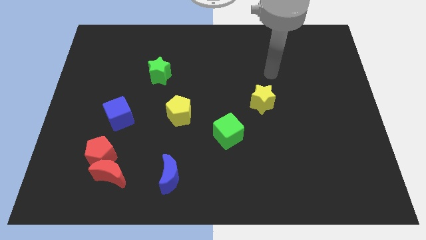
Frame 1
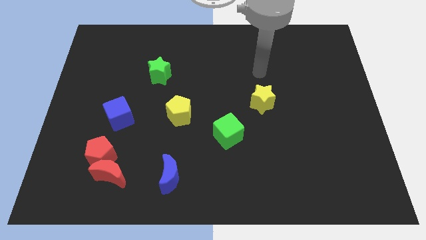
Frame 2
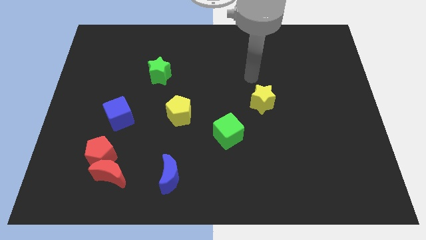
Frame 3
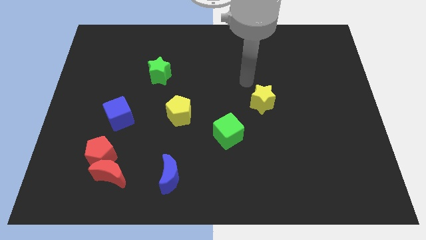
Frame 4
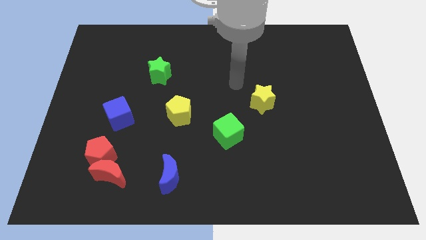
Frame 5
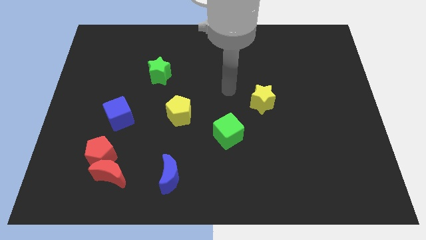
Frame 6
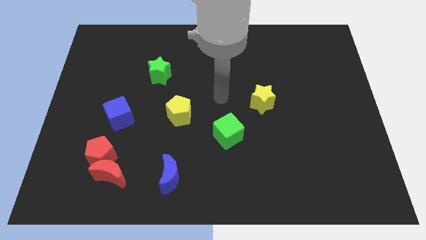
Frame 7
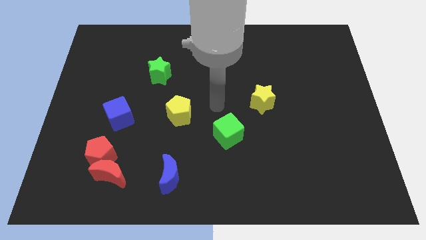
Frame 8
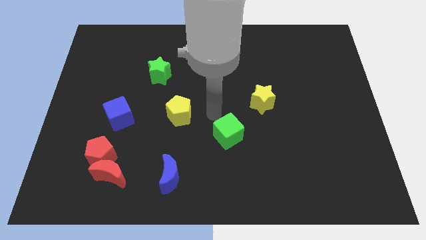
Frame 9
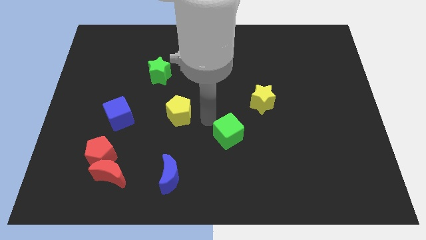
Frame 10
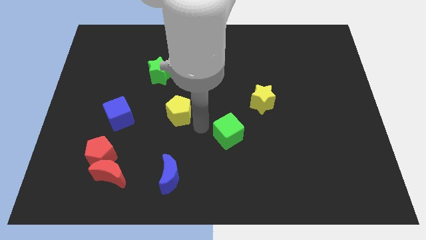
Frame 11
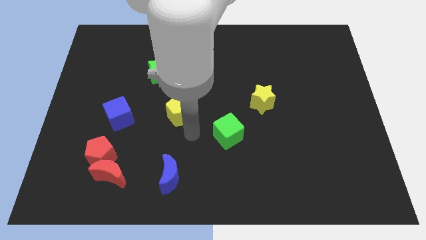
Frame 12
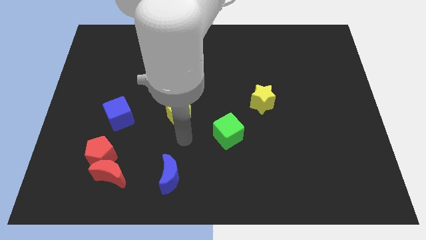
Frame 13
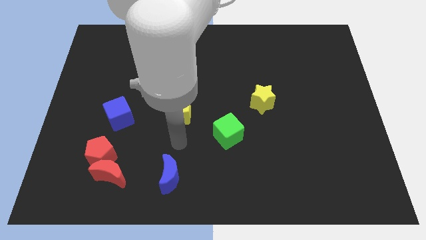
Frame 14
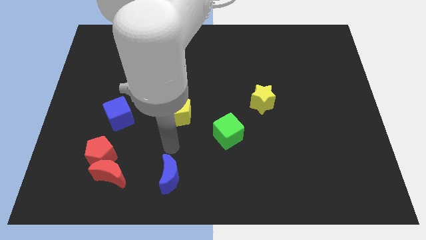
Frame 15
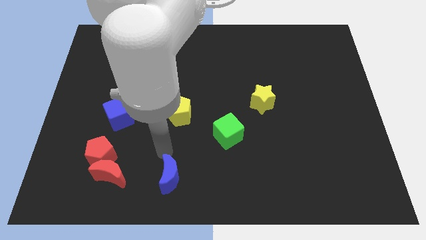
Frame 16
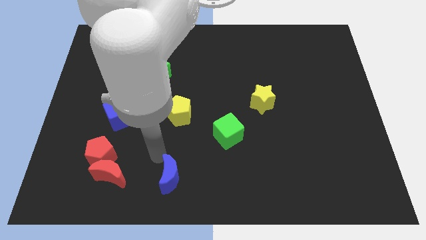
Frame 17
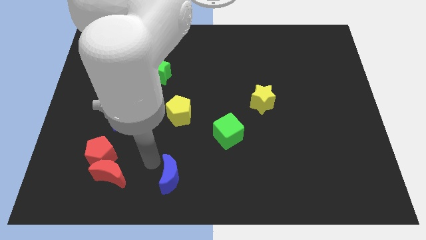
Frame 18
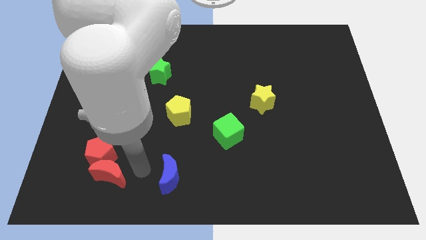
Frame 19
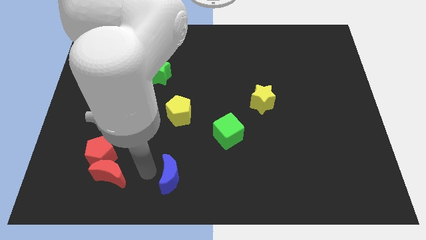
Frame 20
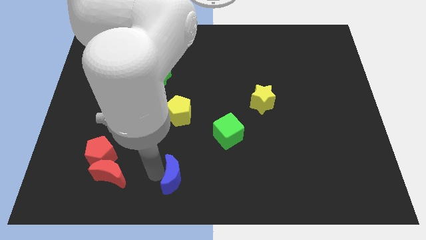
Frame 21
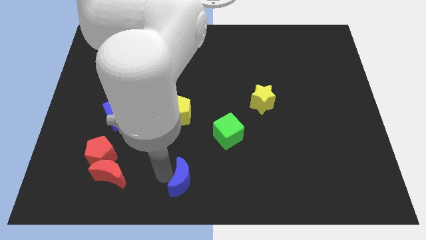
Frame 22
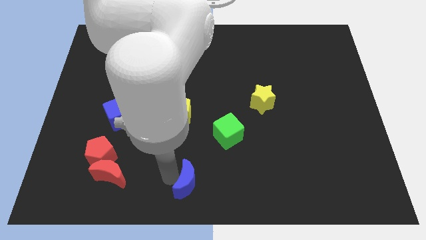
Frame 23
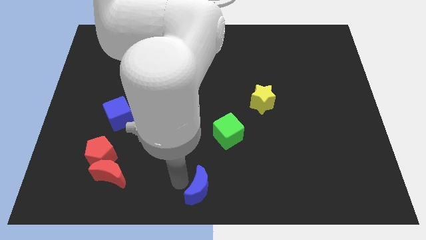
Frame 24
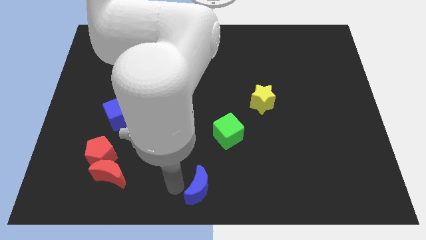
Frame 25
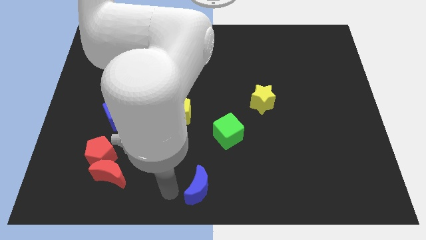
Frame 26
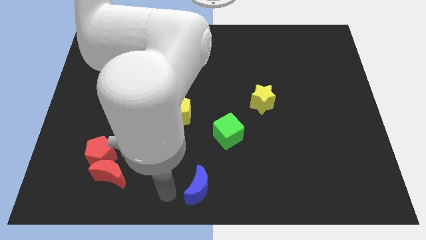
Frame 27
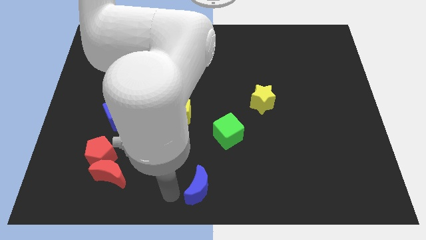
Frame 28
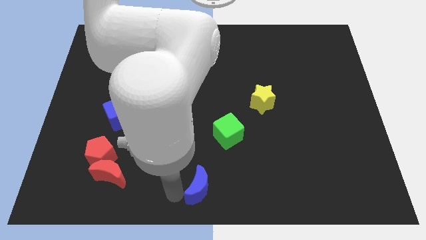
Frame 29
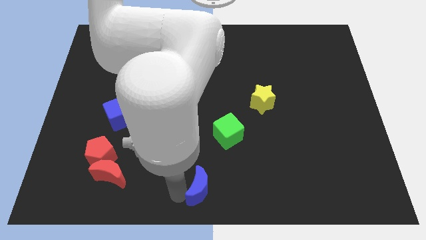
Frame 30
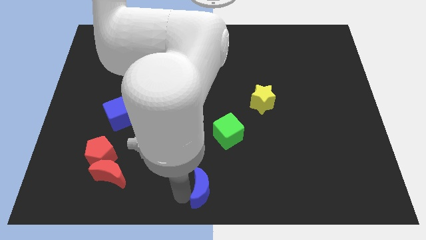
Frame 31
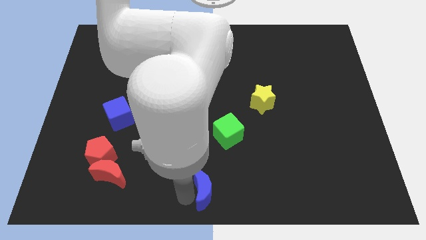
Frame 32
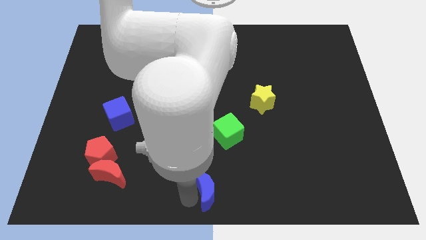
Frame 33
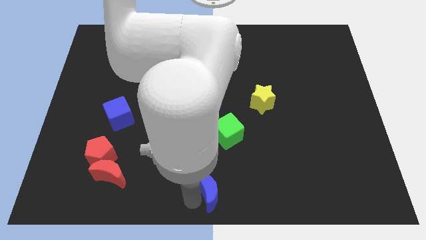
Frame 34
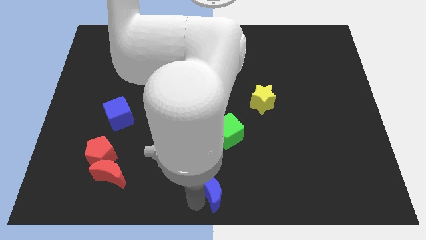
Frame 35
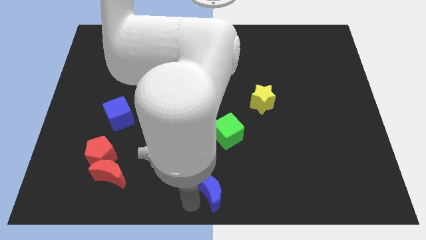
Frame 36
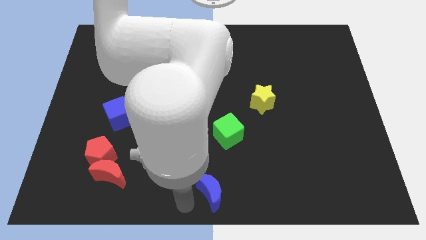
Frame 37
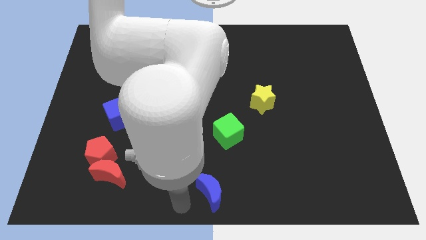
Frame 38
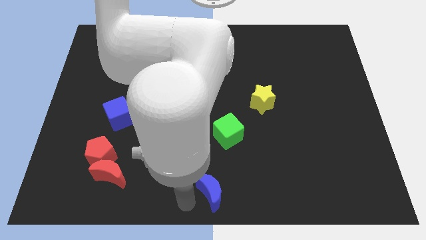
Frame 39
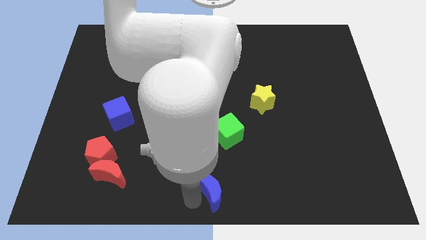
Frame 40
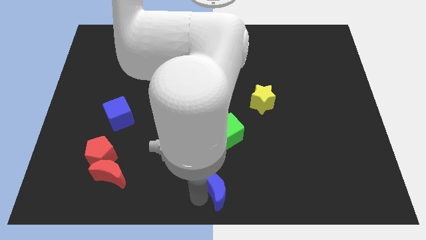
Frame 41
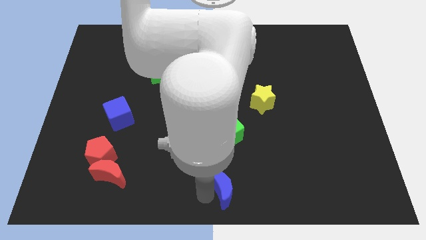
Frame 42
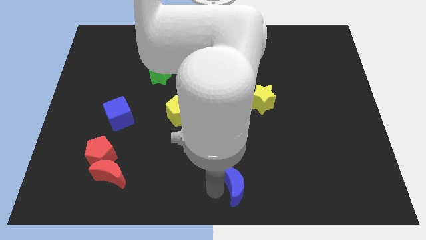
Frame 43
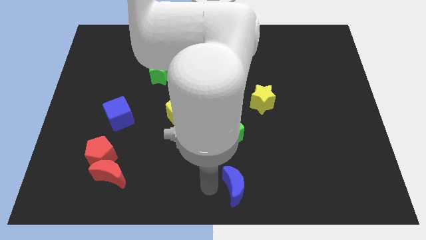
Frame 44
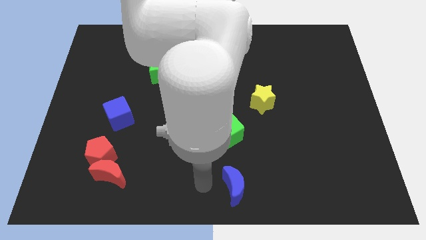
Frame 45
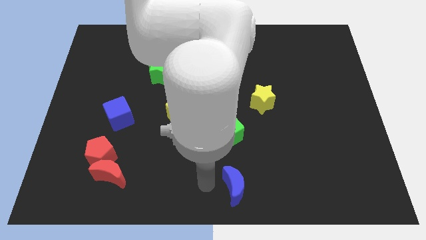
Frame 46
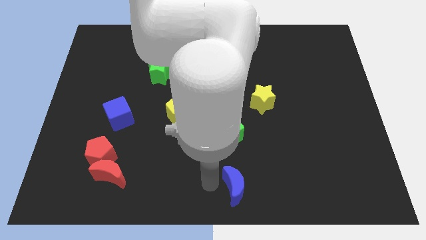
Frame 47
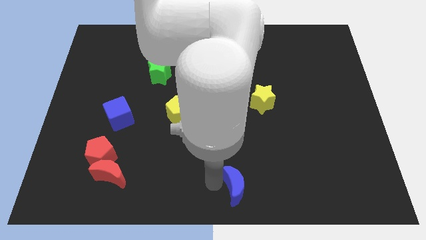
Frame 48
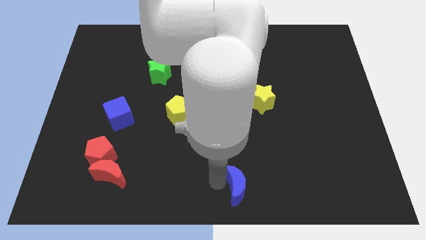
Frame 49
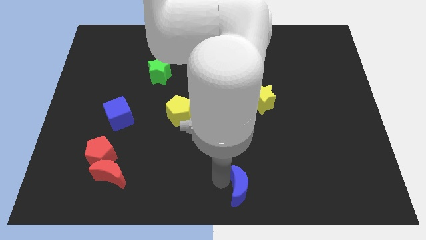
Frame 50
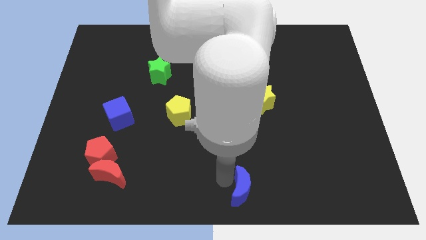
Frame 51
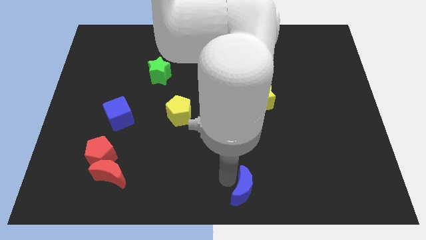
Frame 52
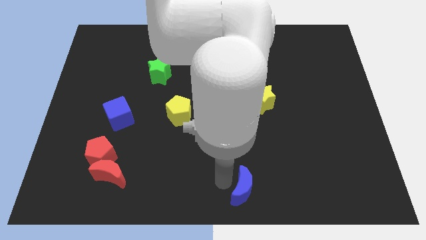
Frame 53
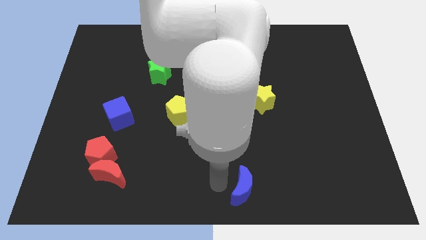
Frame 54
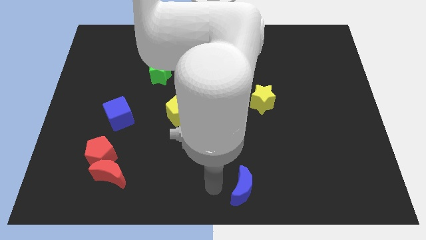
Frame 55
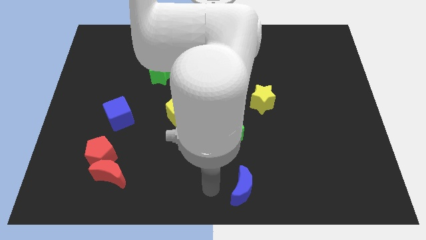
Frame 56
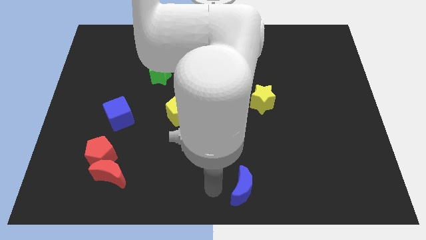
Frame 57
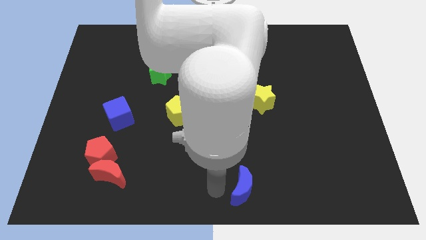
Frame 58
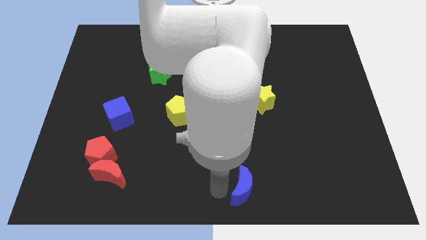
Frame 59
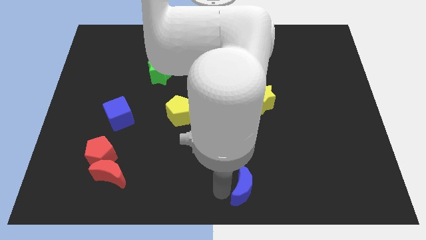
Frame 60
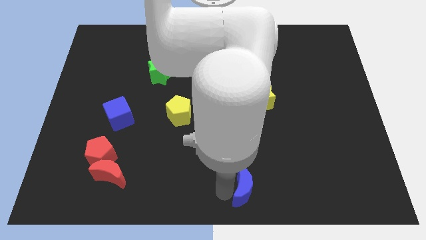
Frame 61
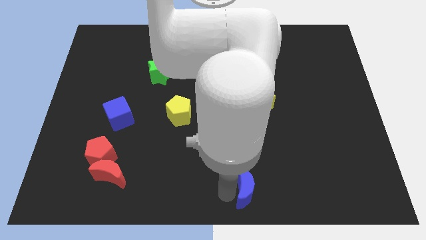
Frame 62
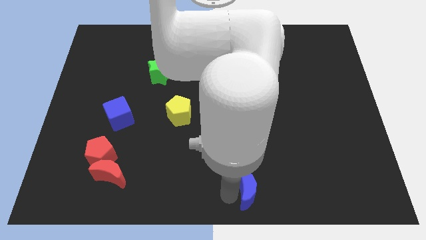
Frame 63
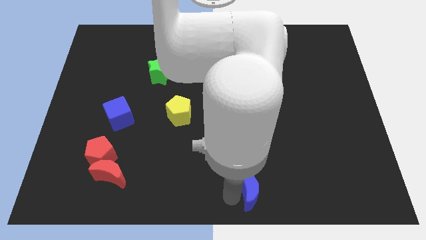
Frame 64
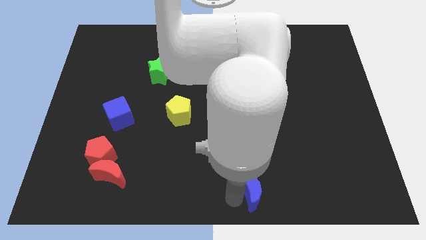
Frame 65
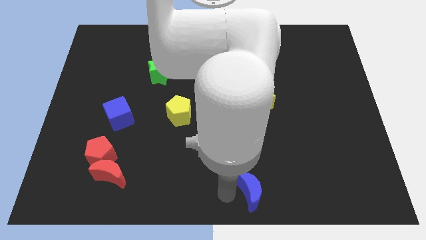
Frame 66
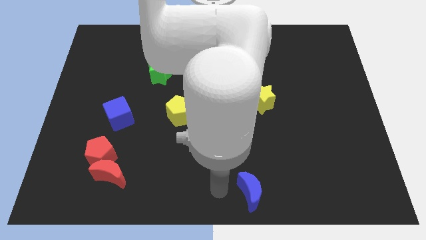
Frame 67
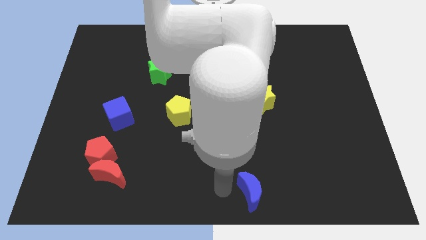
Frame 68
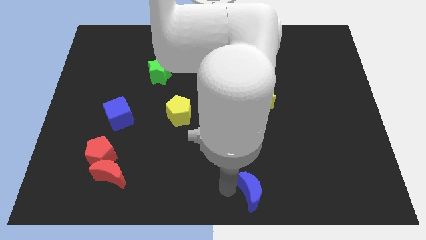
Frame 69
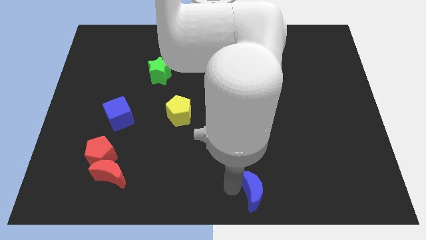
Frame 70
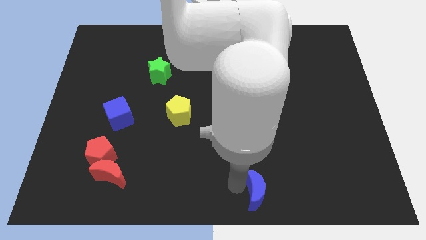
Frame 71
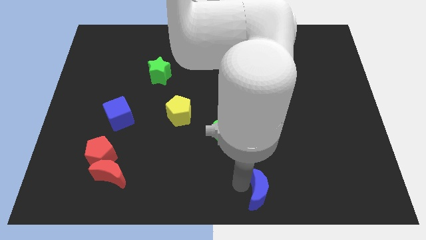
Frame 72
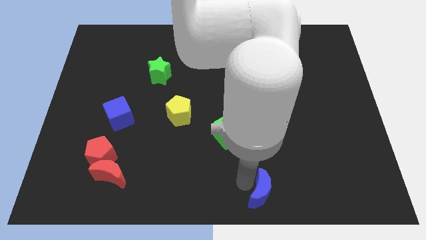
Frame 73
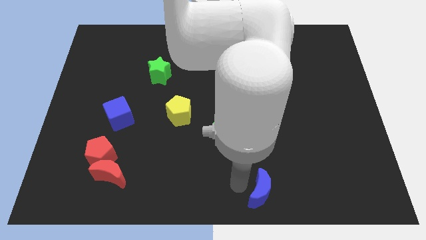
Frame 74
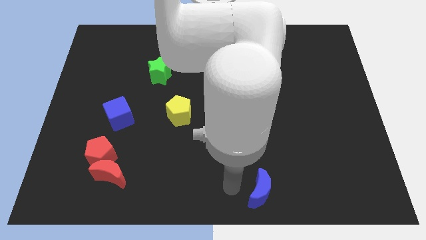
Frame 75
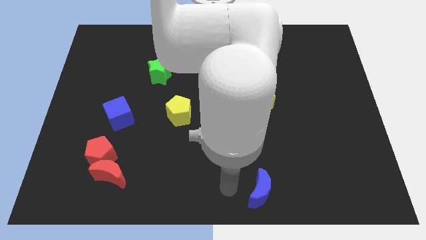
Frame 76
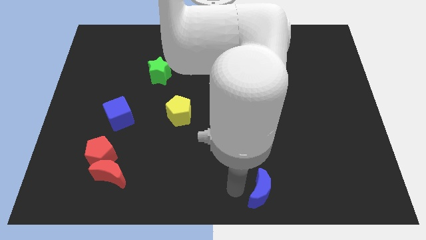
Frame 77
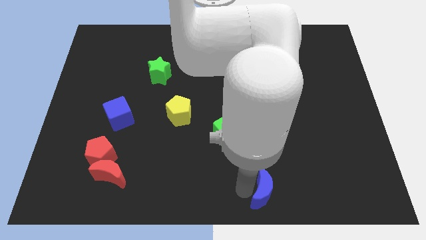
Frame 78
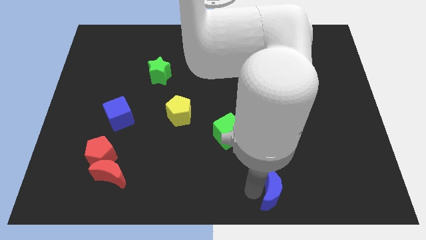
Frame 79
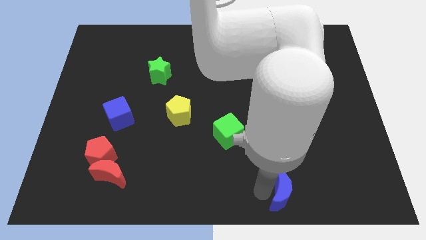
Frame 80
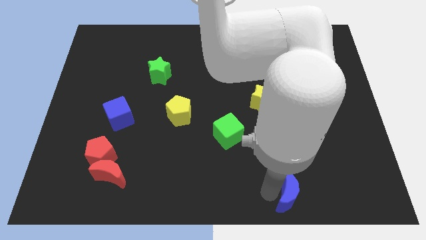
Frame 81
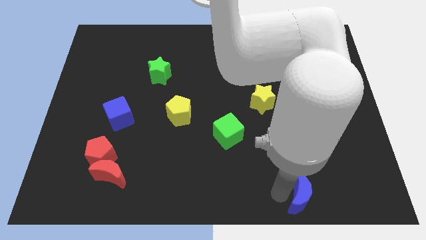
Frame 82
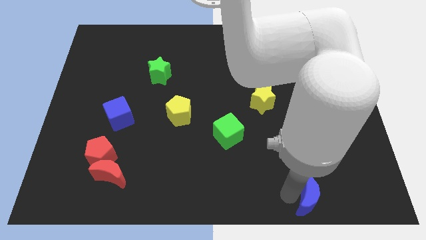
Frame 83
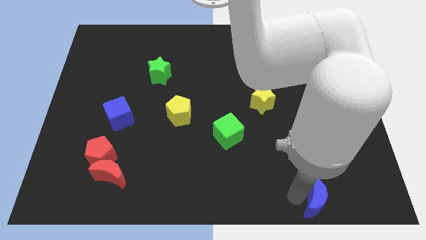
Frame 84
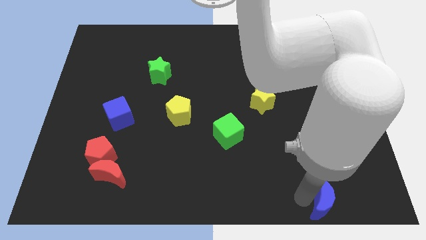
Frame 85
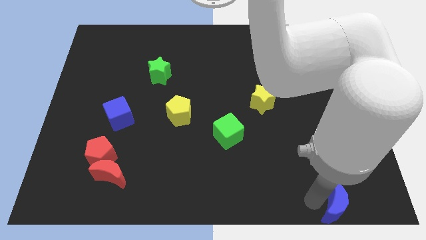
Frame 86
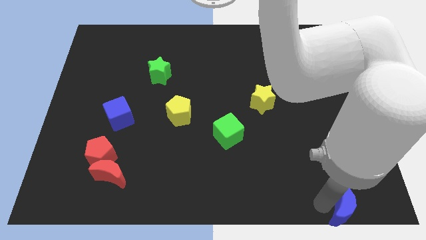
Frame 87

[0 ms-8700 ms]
slide the blue moon to the bottom right
